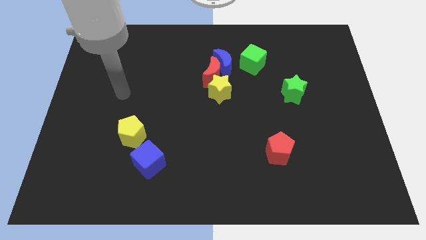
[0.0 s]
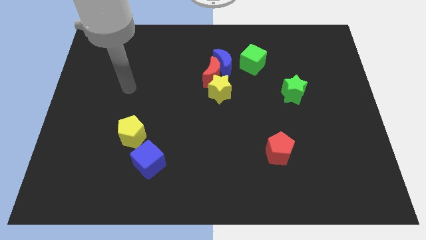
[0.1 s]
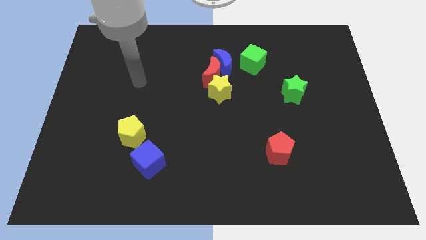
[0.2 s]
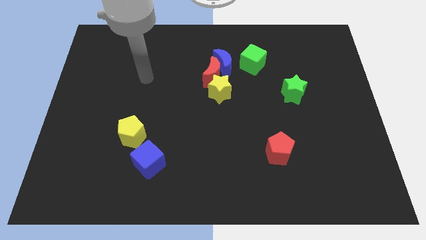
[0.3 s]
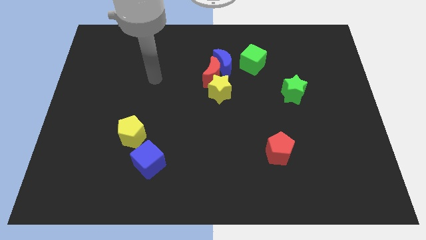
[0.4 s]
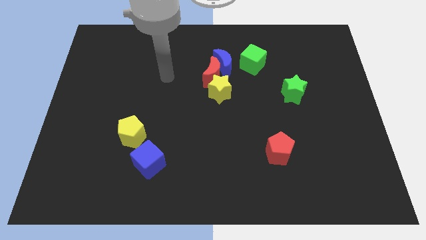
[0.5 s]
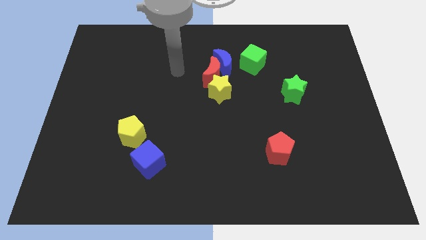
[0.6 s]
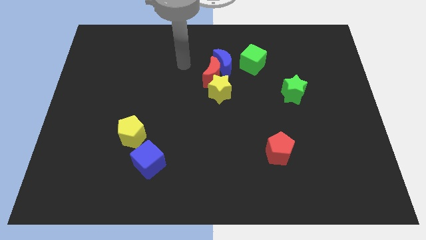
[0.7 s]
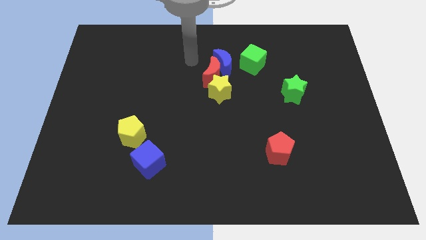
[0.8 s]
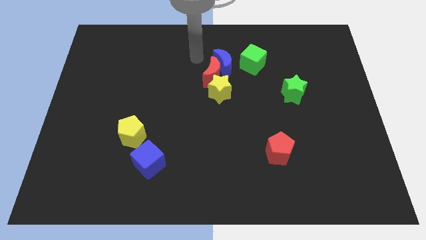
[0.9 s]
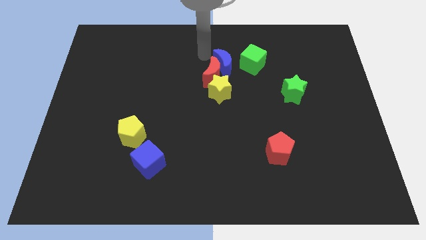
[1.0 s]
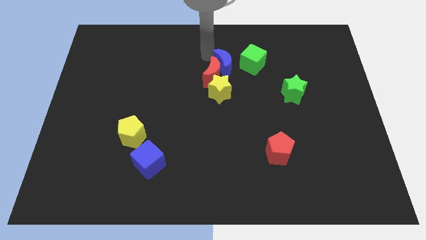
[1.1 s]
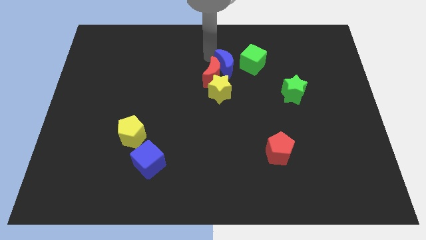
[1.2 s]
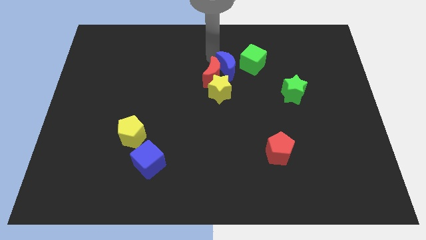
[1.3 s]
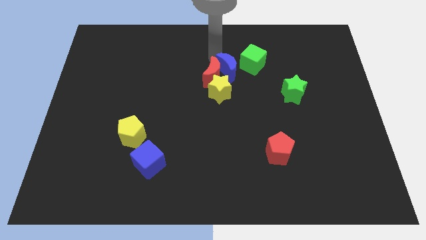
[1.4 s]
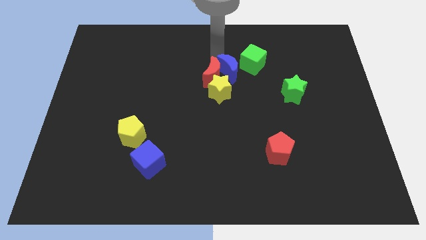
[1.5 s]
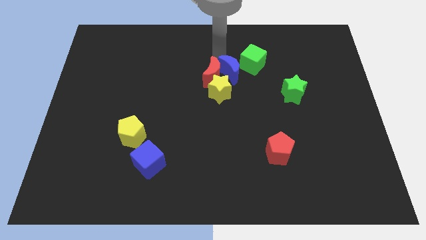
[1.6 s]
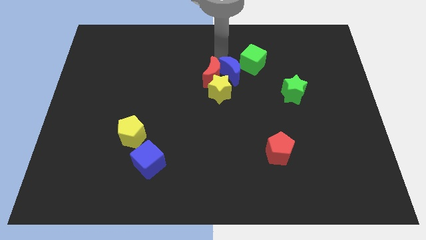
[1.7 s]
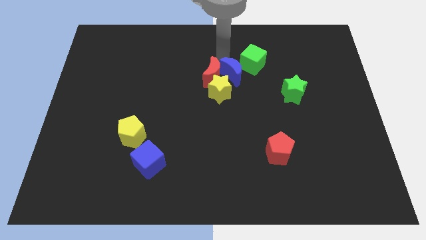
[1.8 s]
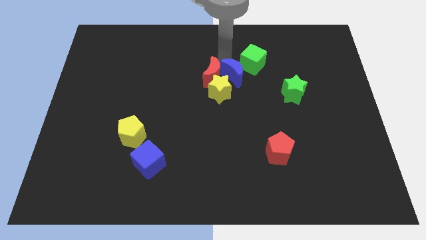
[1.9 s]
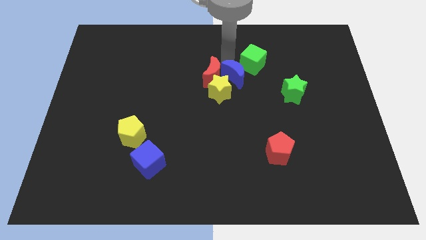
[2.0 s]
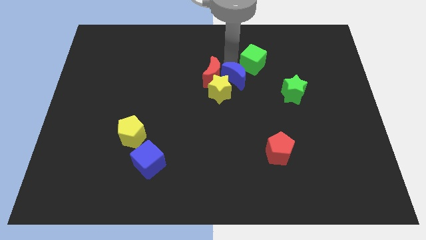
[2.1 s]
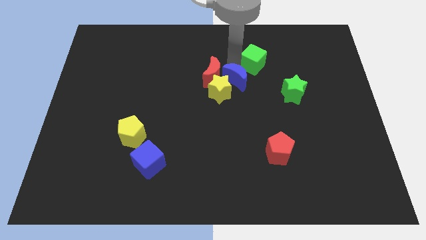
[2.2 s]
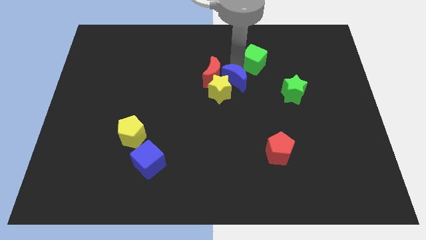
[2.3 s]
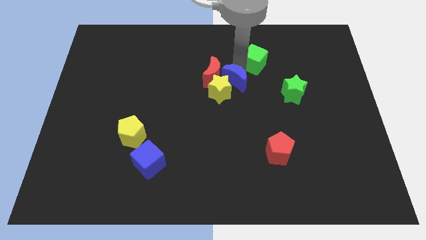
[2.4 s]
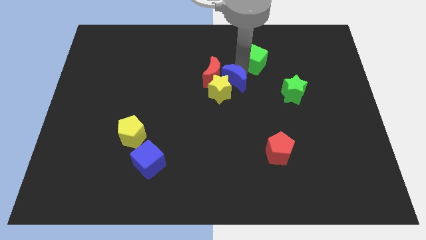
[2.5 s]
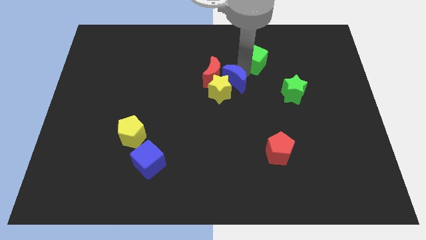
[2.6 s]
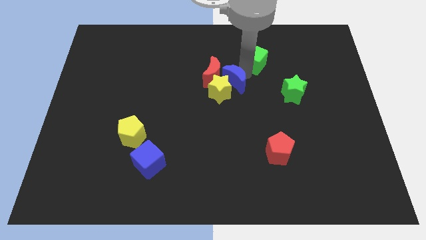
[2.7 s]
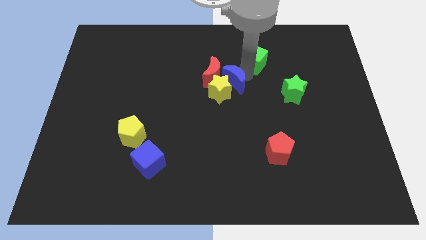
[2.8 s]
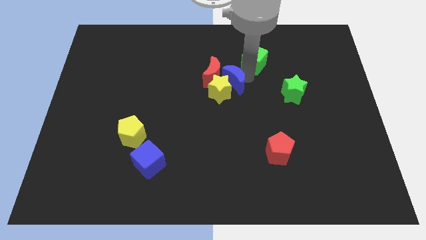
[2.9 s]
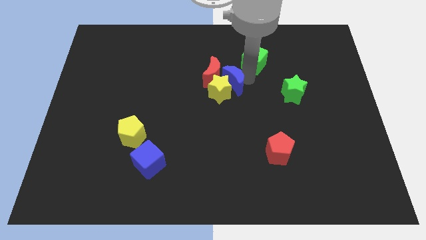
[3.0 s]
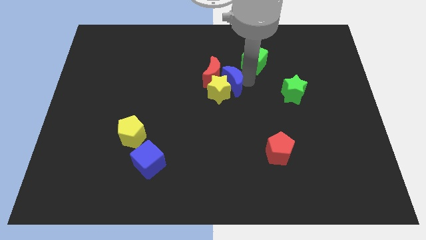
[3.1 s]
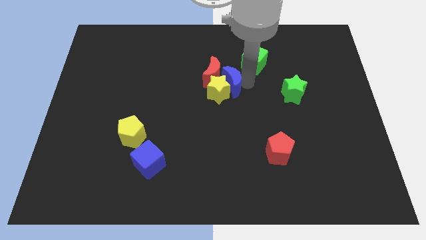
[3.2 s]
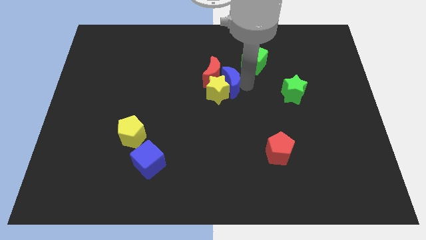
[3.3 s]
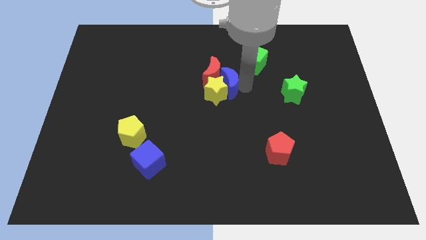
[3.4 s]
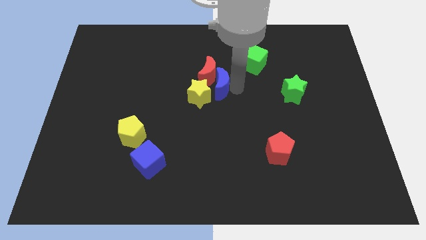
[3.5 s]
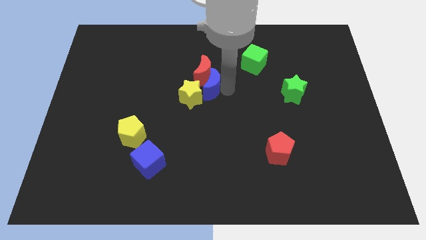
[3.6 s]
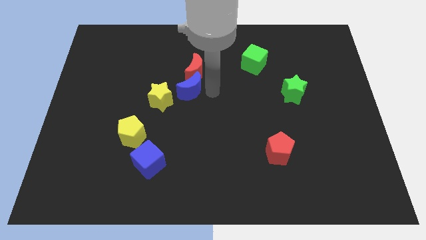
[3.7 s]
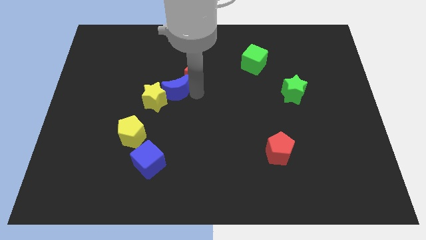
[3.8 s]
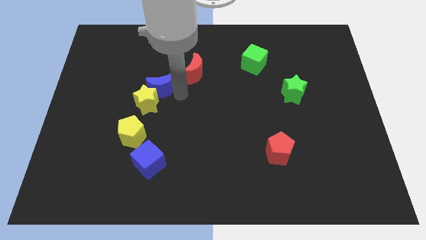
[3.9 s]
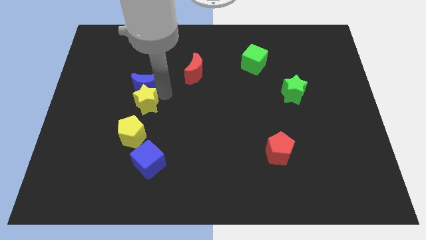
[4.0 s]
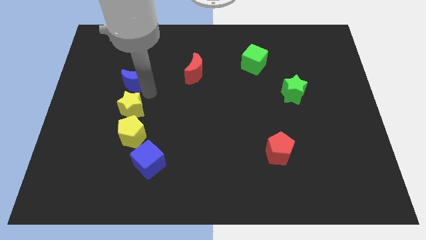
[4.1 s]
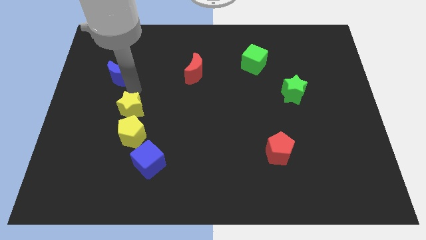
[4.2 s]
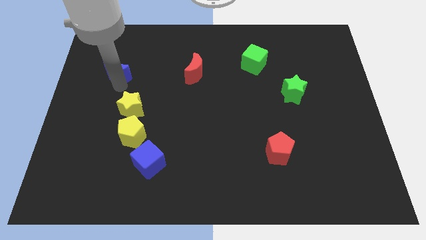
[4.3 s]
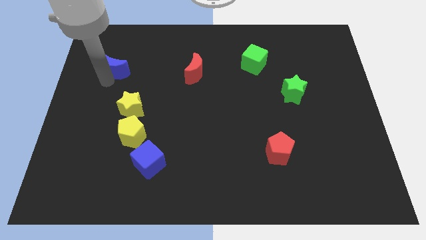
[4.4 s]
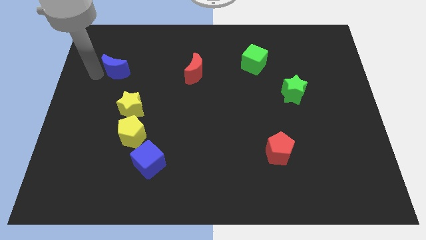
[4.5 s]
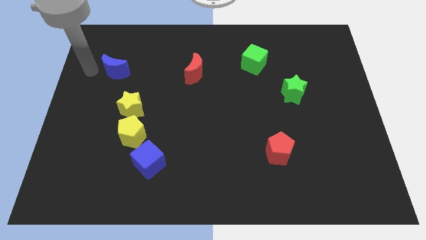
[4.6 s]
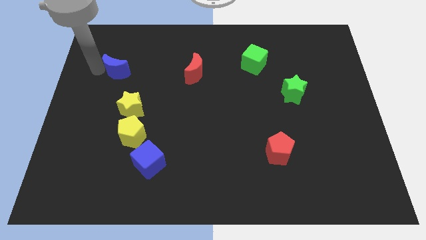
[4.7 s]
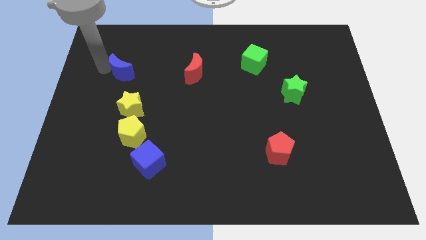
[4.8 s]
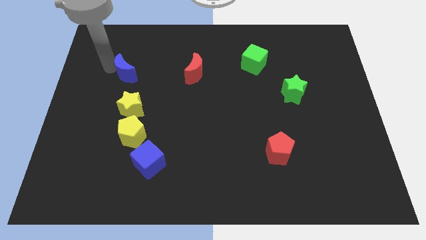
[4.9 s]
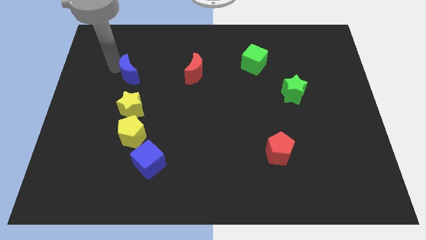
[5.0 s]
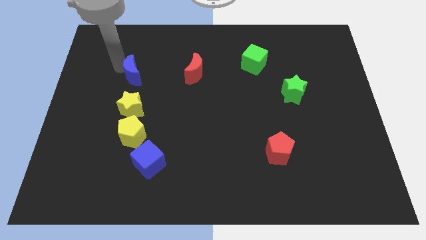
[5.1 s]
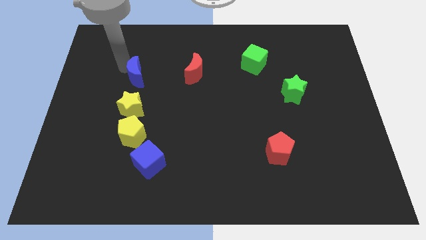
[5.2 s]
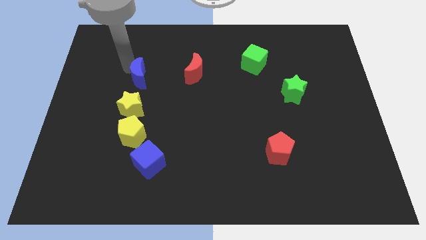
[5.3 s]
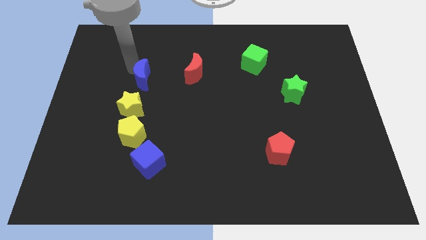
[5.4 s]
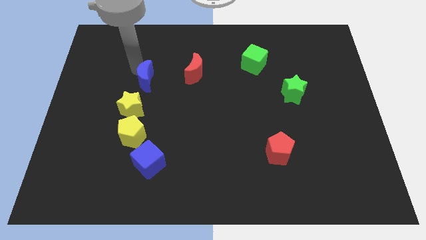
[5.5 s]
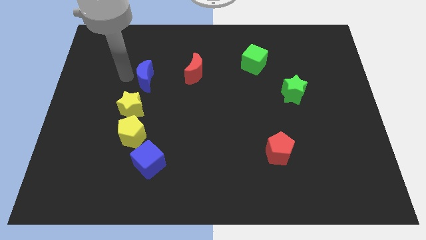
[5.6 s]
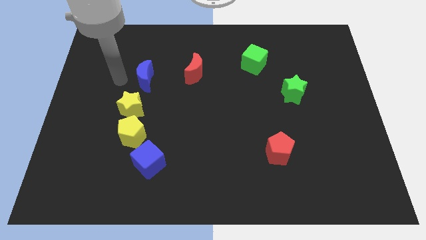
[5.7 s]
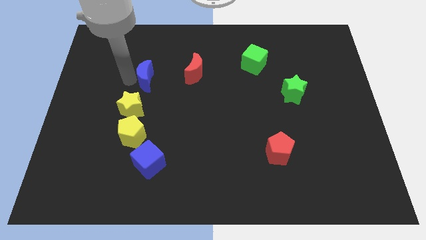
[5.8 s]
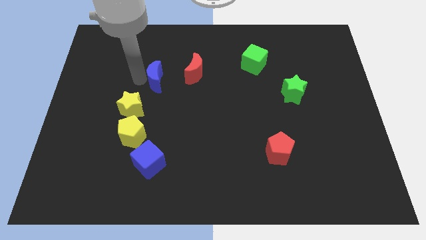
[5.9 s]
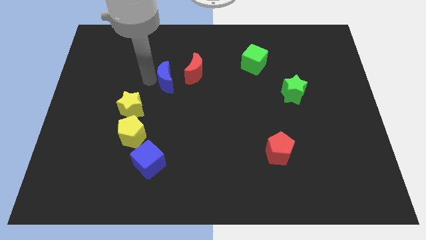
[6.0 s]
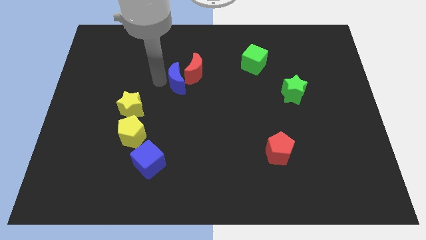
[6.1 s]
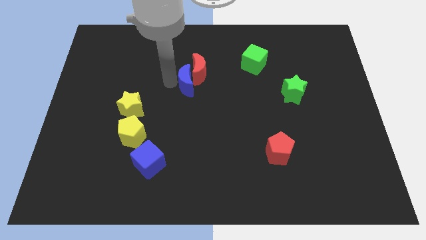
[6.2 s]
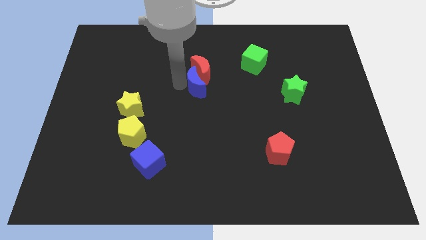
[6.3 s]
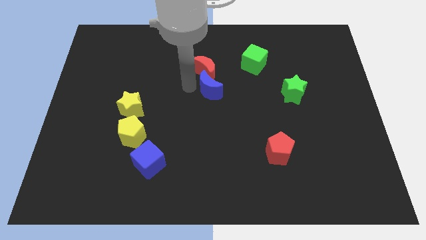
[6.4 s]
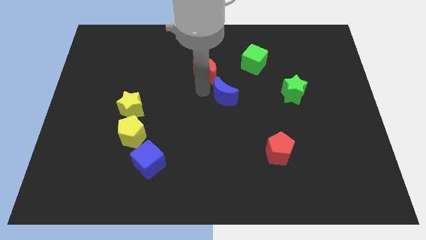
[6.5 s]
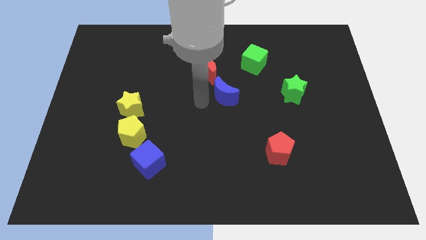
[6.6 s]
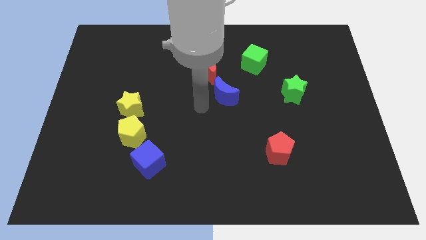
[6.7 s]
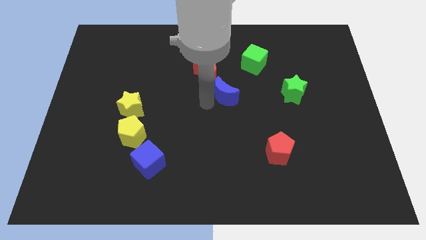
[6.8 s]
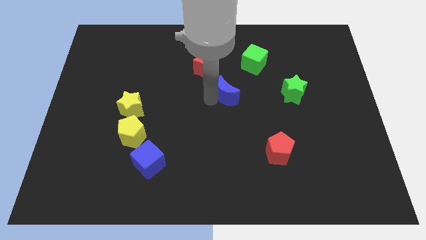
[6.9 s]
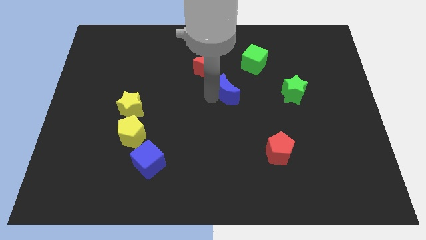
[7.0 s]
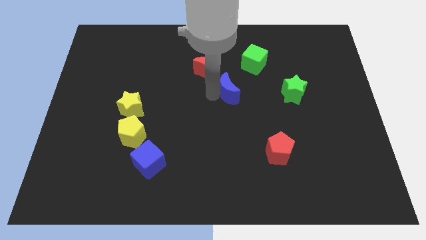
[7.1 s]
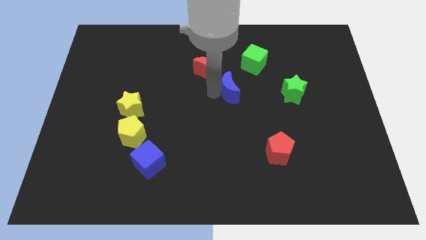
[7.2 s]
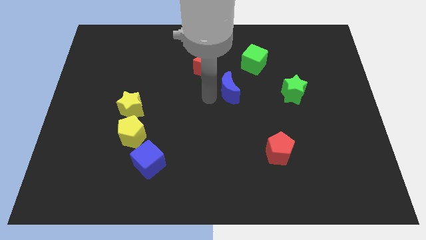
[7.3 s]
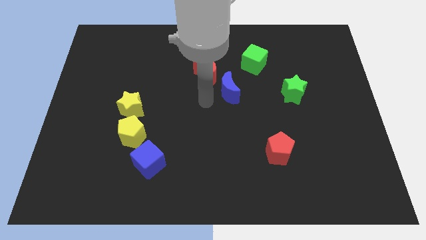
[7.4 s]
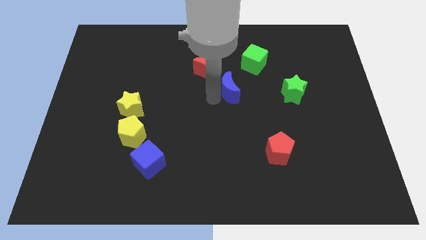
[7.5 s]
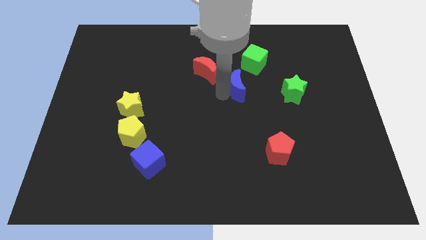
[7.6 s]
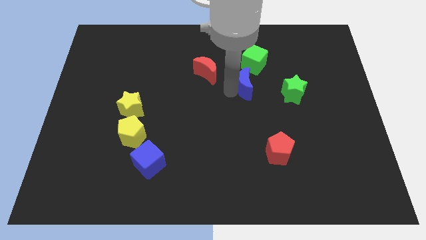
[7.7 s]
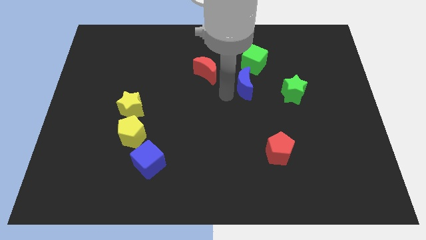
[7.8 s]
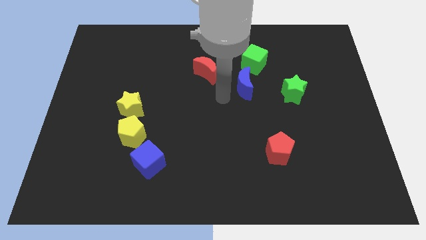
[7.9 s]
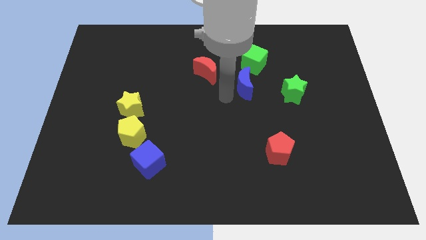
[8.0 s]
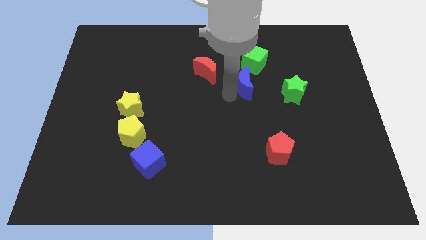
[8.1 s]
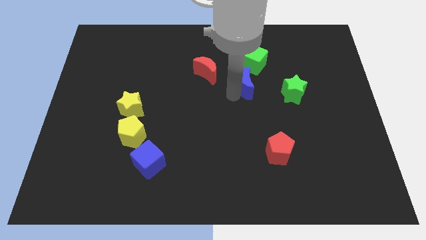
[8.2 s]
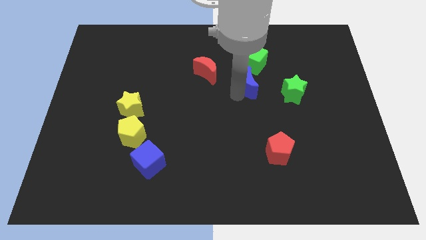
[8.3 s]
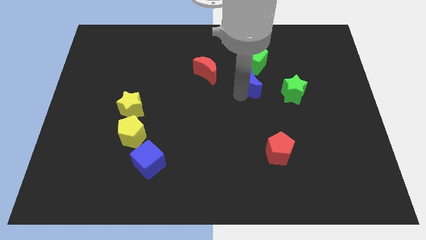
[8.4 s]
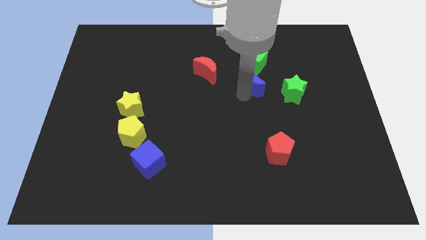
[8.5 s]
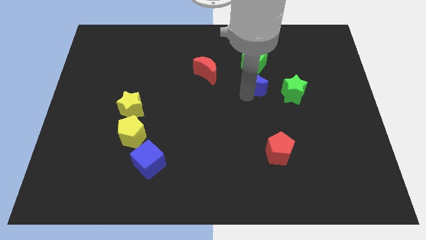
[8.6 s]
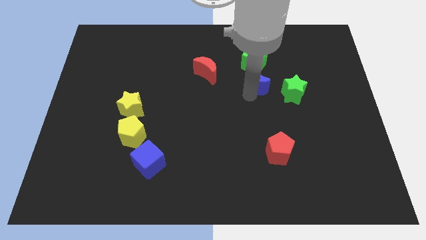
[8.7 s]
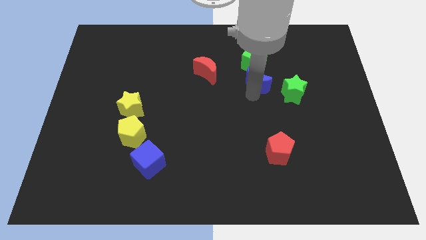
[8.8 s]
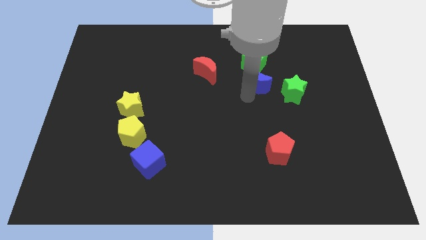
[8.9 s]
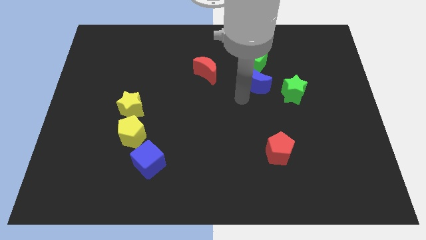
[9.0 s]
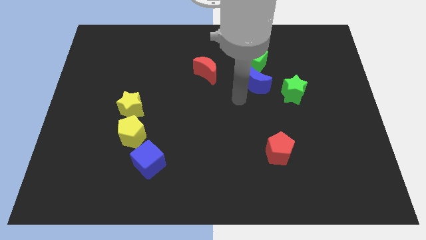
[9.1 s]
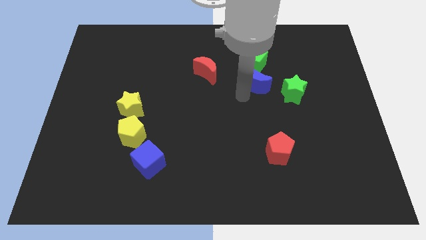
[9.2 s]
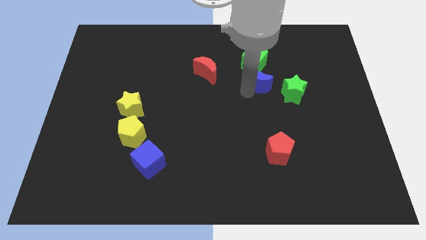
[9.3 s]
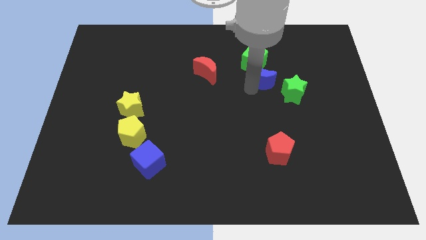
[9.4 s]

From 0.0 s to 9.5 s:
slightly push the blue moon to the right
